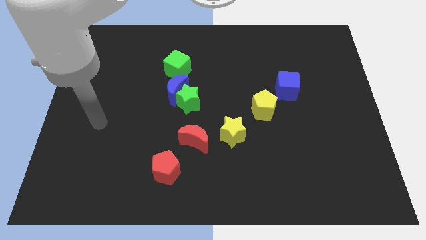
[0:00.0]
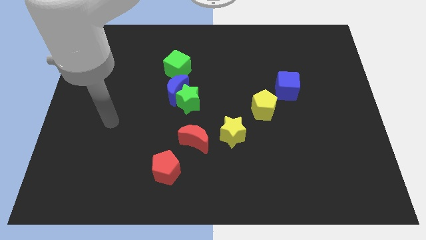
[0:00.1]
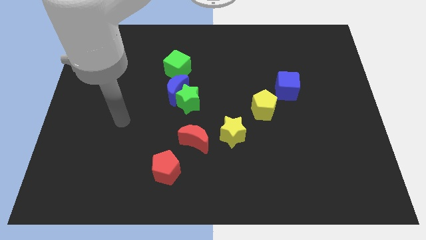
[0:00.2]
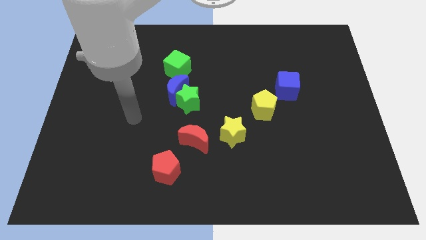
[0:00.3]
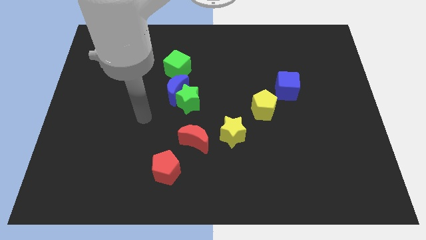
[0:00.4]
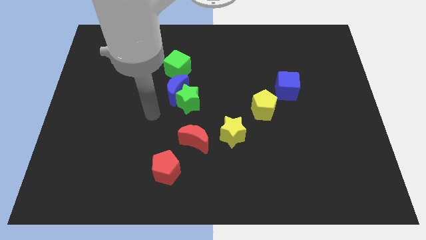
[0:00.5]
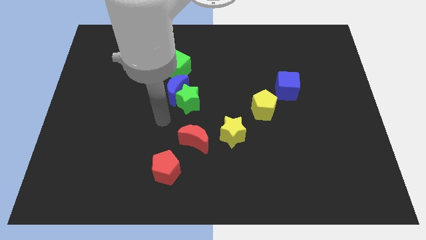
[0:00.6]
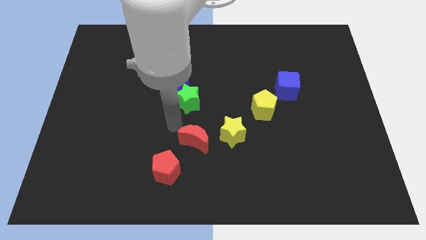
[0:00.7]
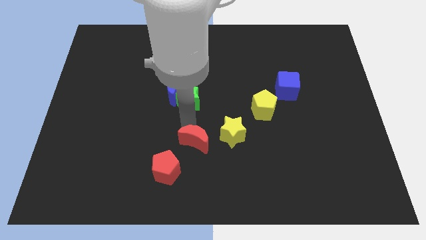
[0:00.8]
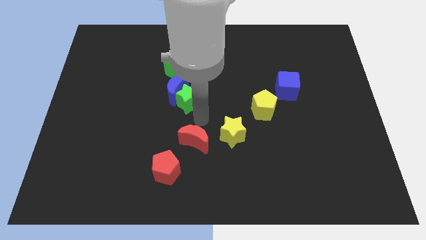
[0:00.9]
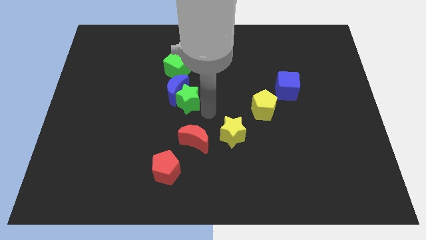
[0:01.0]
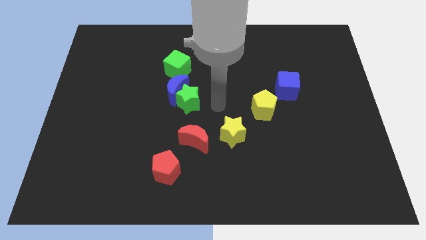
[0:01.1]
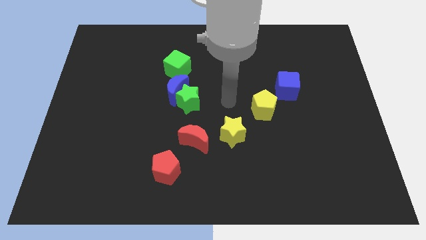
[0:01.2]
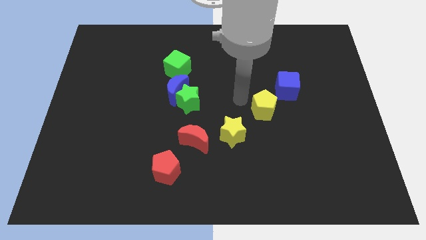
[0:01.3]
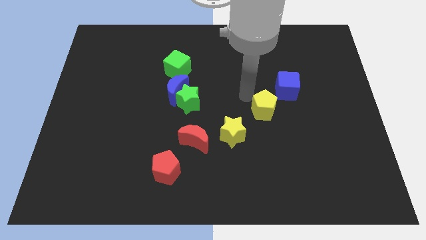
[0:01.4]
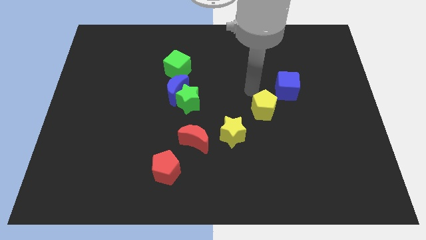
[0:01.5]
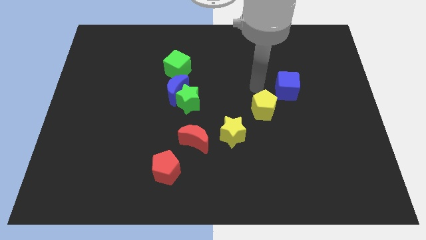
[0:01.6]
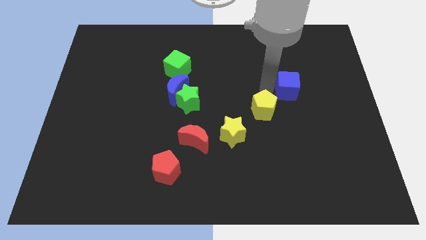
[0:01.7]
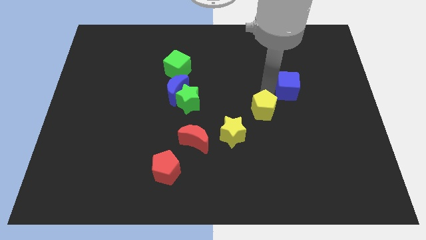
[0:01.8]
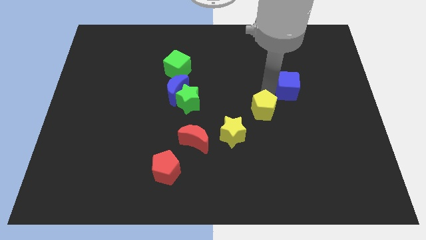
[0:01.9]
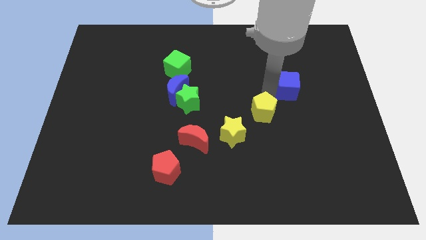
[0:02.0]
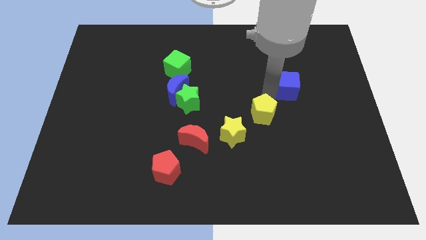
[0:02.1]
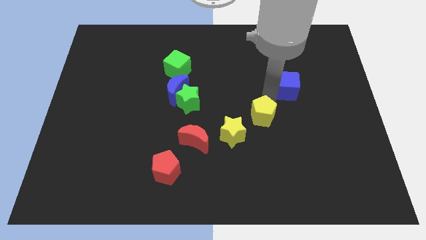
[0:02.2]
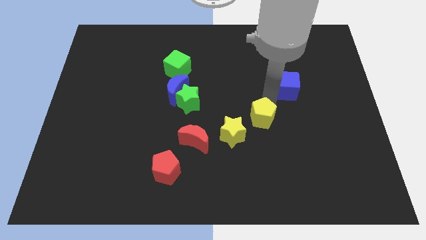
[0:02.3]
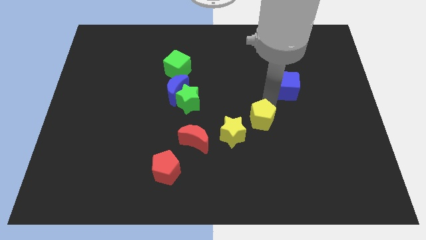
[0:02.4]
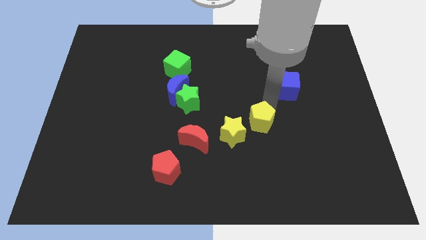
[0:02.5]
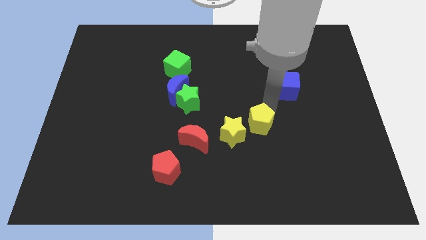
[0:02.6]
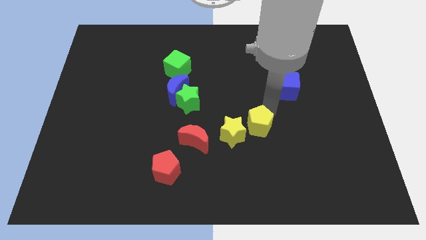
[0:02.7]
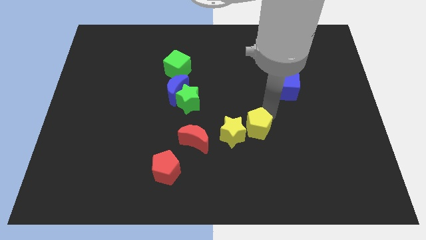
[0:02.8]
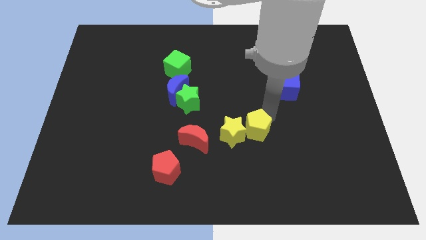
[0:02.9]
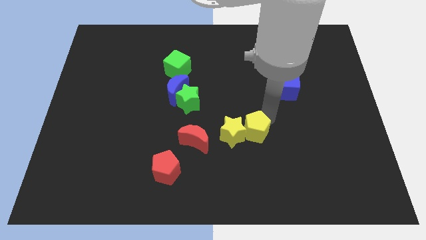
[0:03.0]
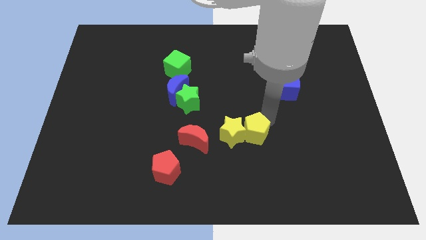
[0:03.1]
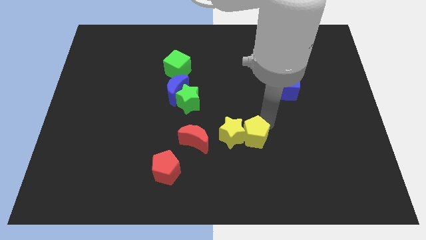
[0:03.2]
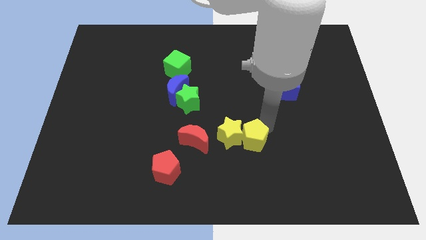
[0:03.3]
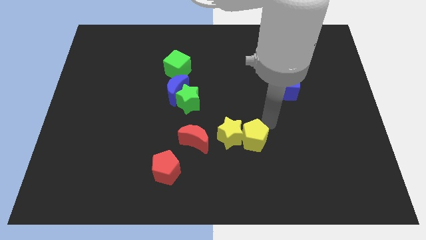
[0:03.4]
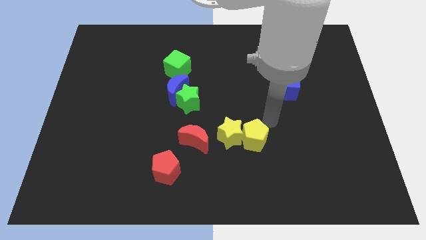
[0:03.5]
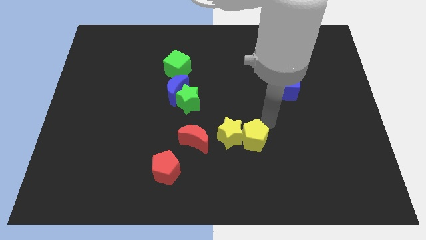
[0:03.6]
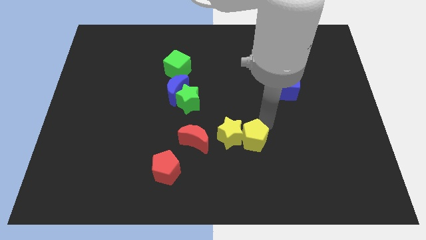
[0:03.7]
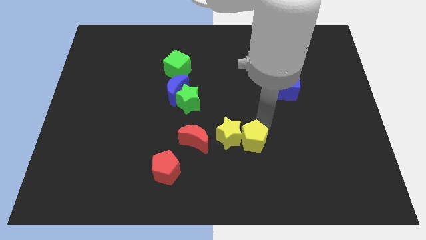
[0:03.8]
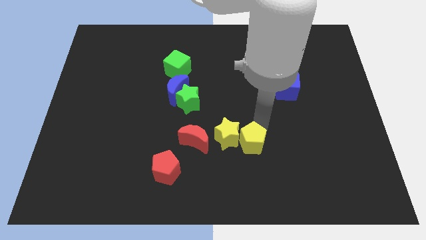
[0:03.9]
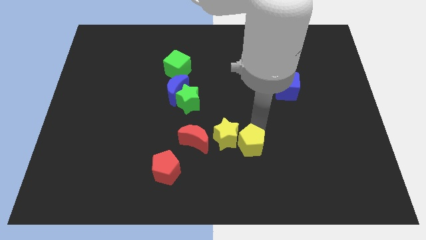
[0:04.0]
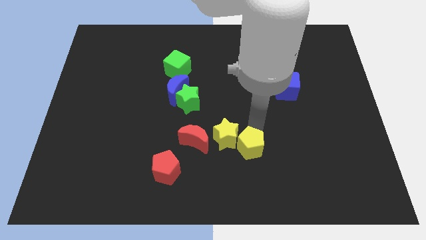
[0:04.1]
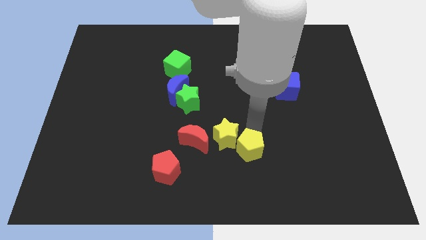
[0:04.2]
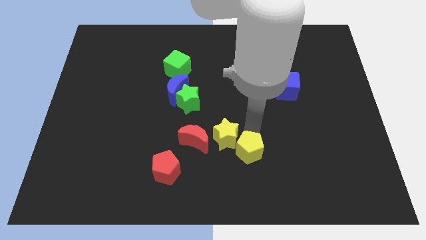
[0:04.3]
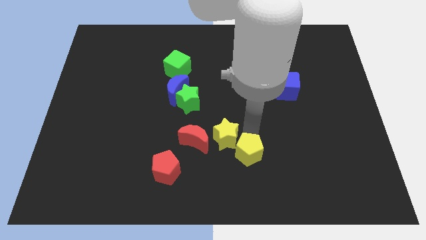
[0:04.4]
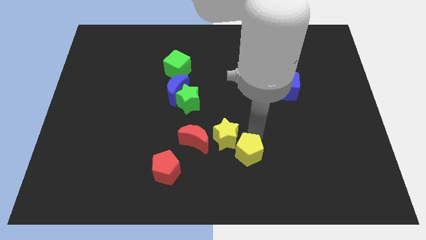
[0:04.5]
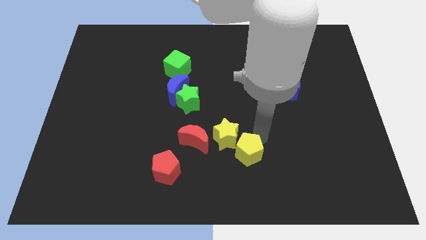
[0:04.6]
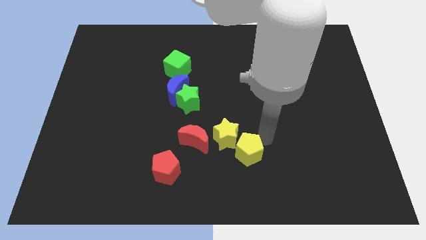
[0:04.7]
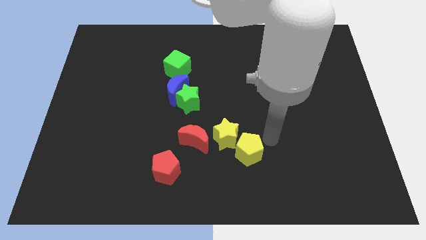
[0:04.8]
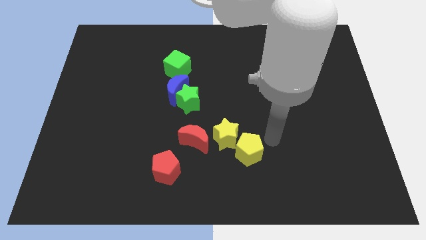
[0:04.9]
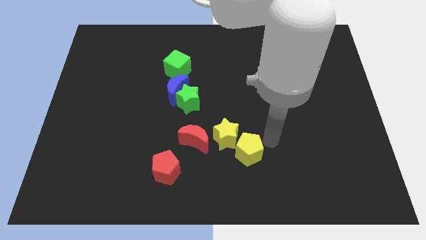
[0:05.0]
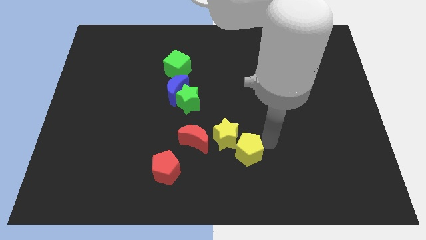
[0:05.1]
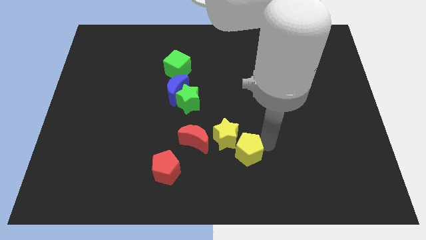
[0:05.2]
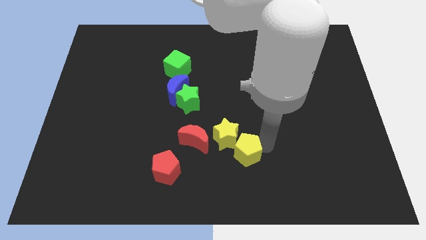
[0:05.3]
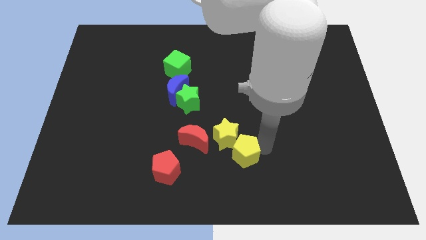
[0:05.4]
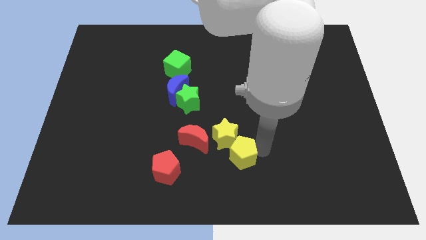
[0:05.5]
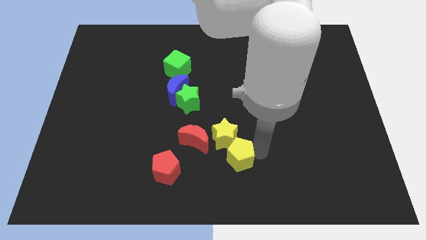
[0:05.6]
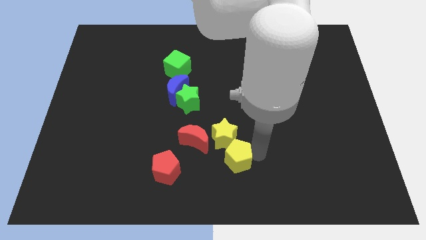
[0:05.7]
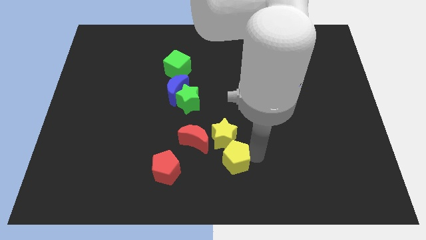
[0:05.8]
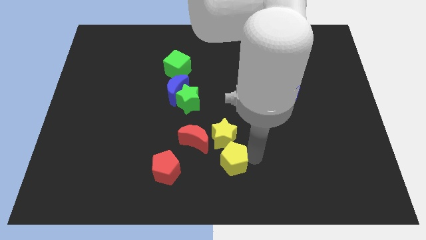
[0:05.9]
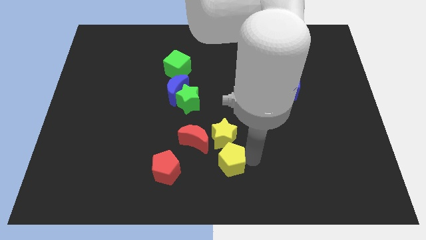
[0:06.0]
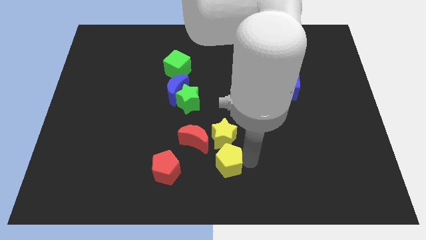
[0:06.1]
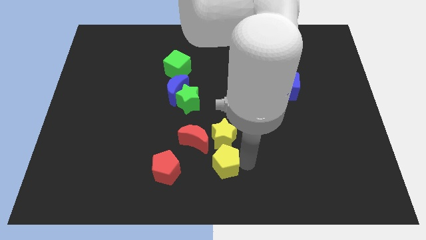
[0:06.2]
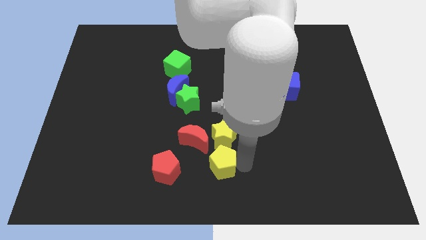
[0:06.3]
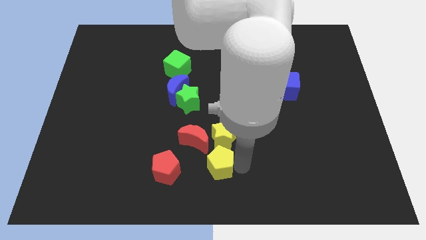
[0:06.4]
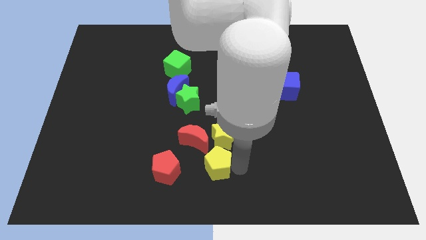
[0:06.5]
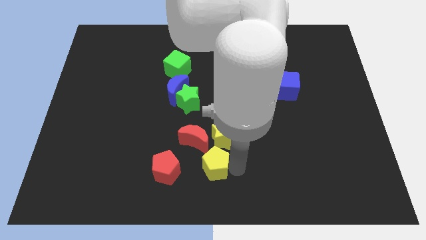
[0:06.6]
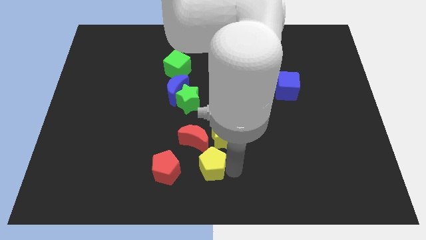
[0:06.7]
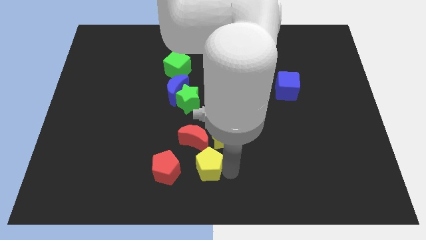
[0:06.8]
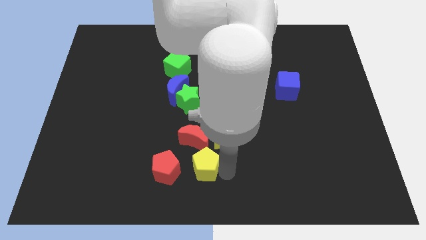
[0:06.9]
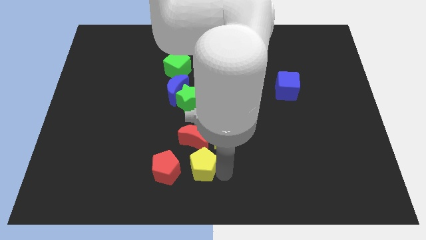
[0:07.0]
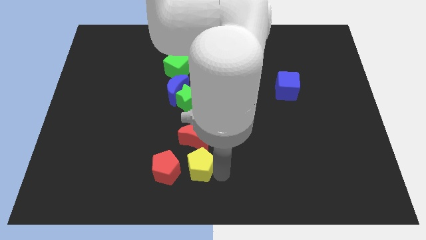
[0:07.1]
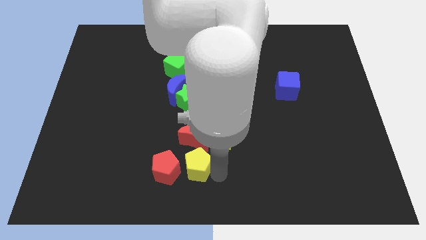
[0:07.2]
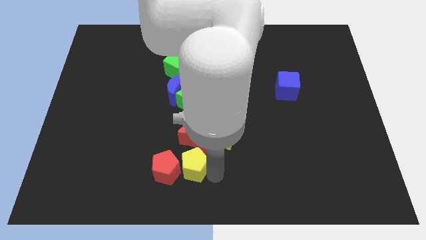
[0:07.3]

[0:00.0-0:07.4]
put the yellow pentagon close to the red pentagon
